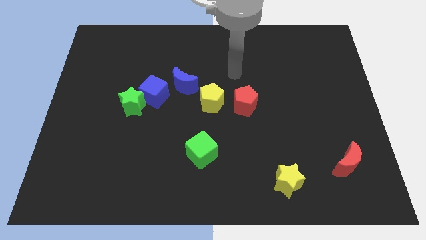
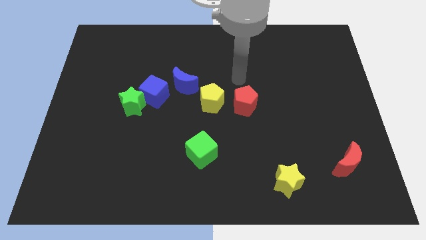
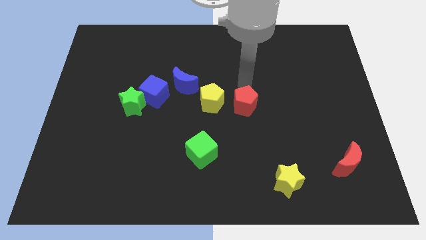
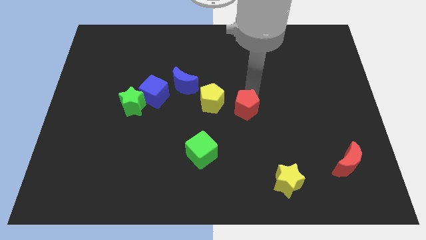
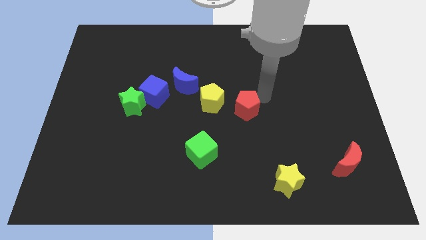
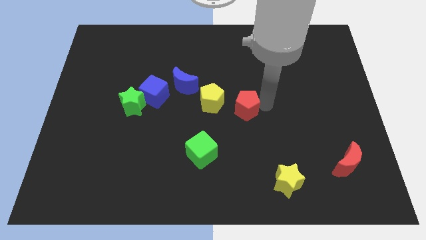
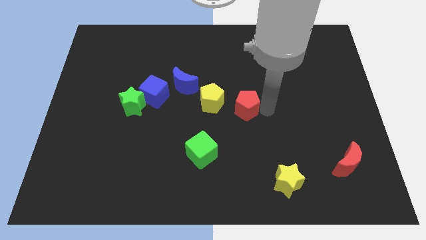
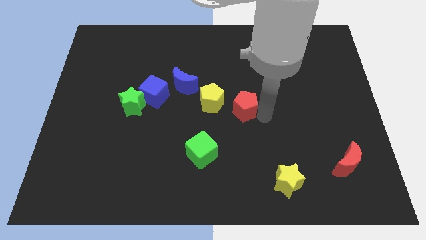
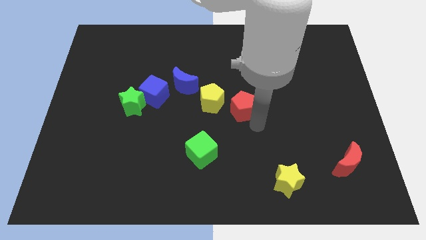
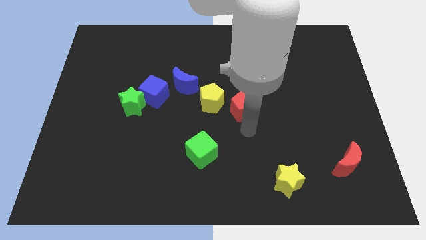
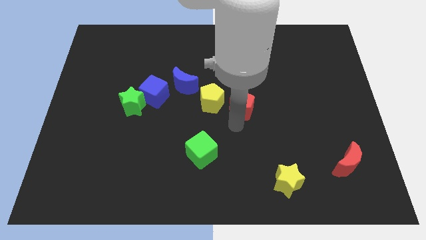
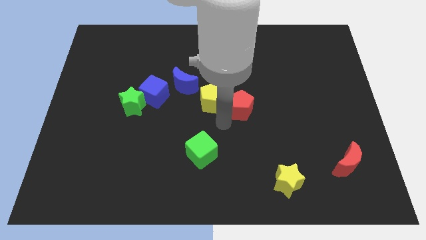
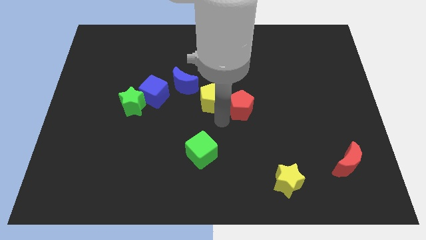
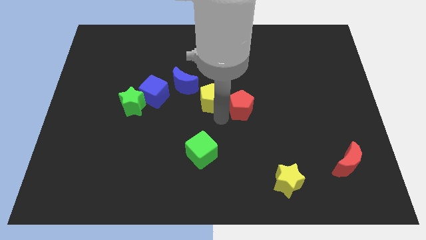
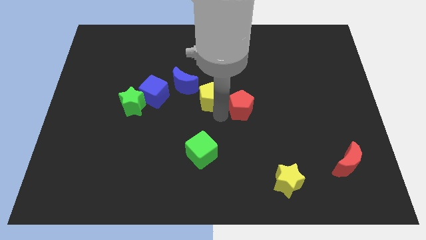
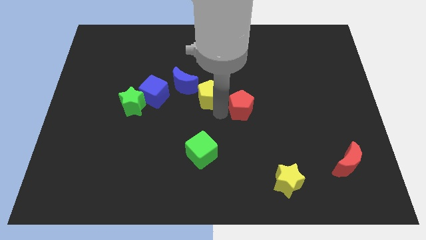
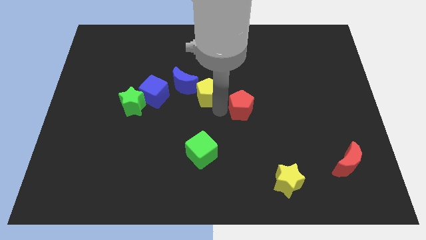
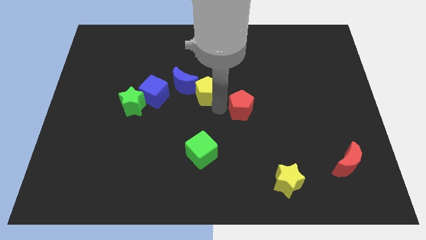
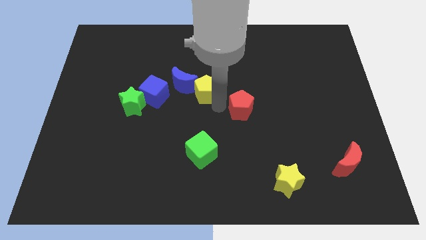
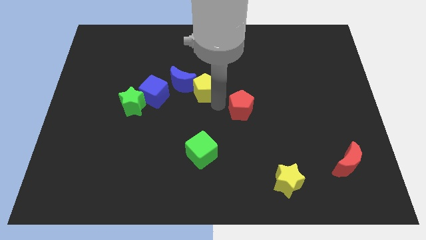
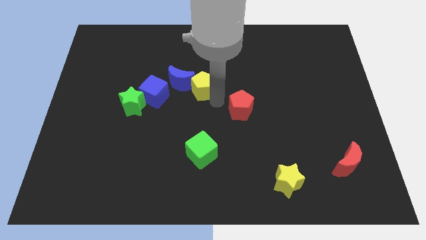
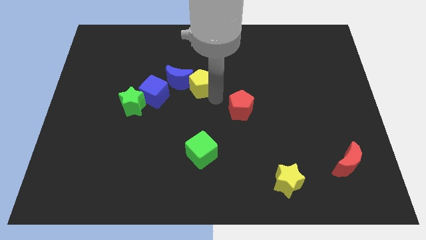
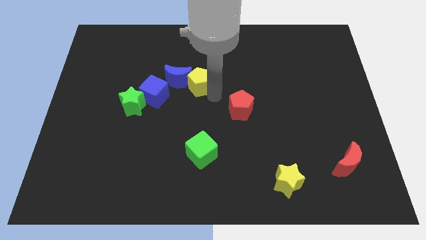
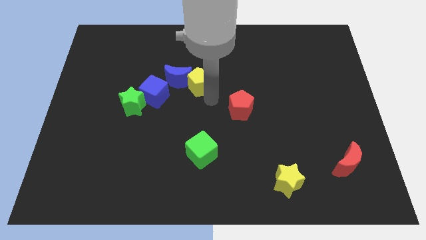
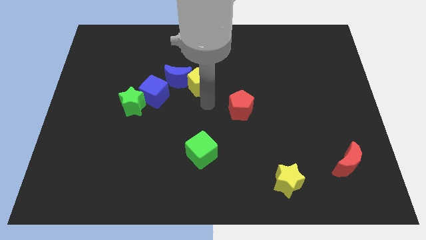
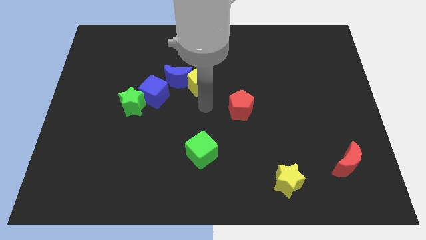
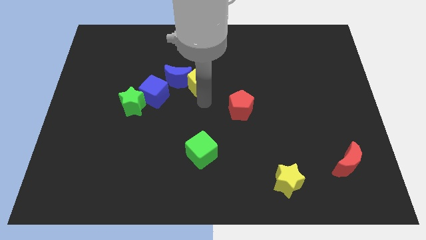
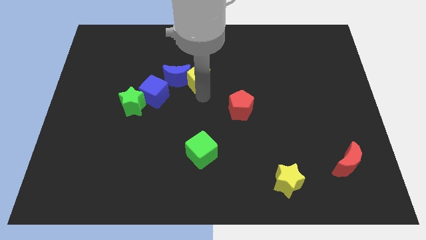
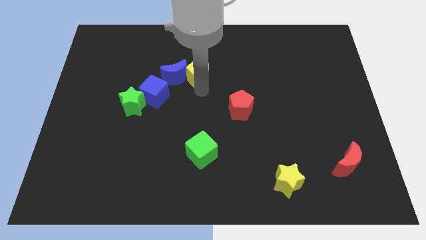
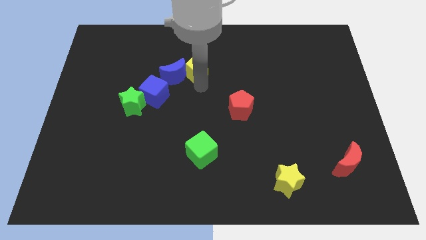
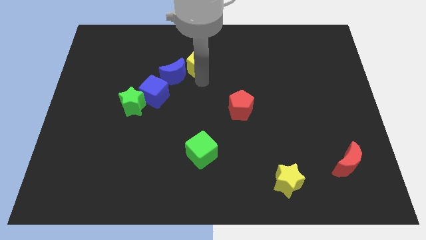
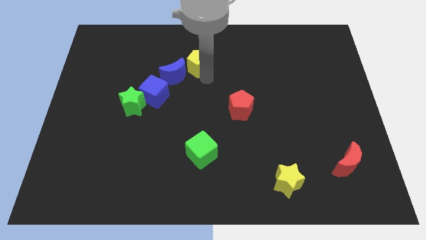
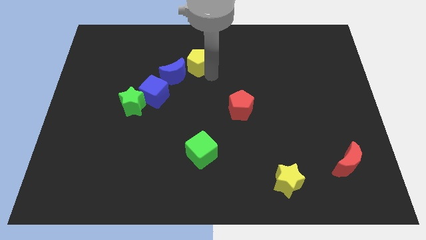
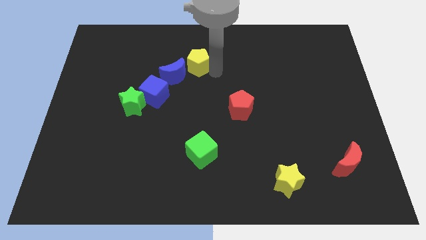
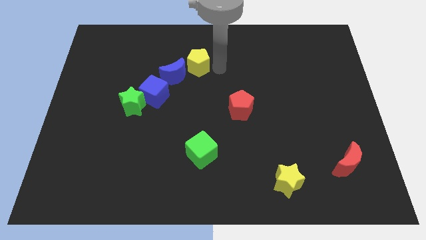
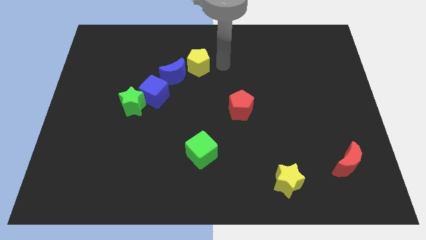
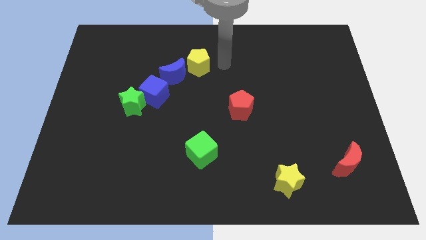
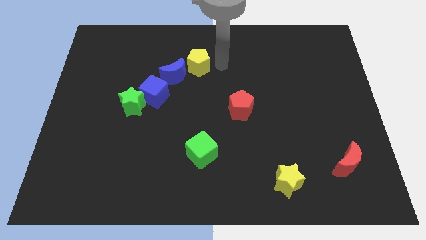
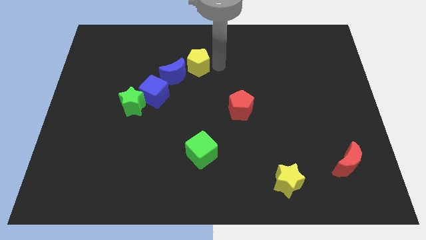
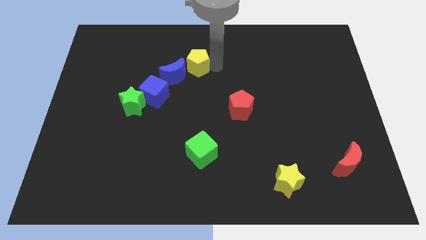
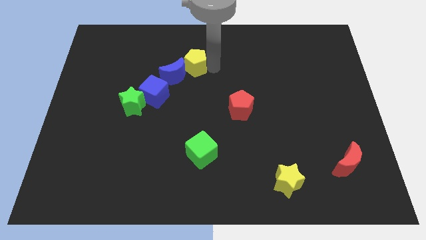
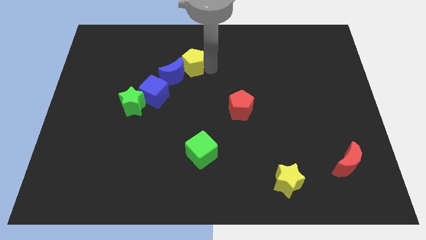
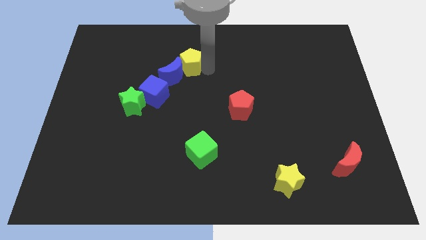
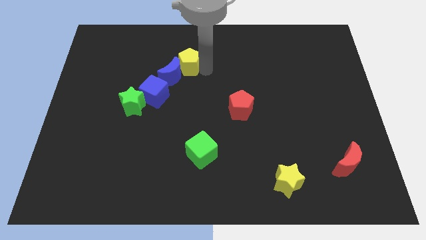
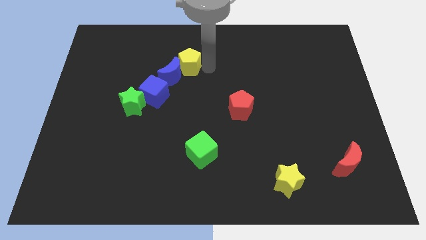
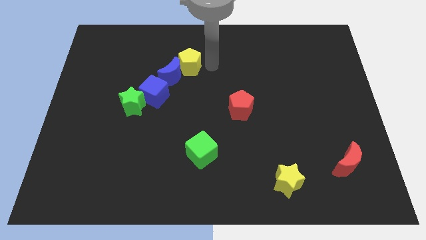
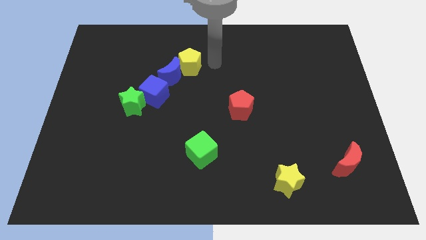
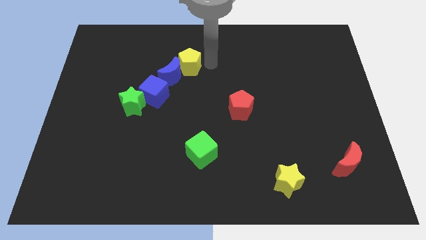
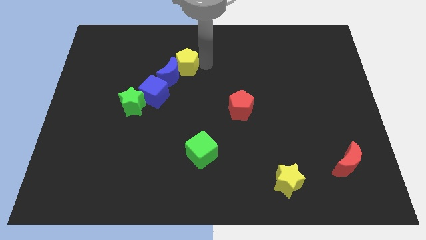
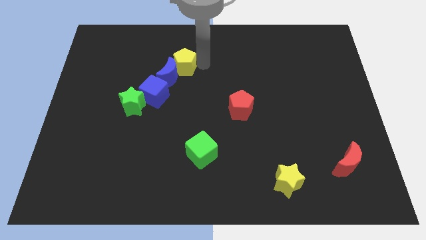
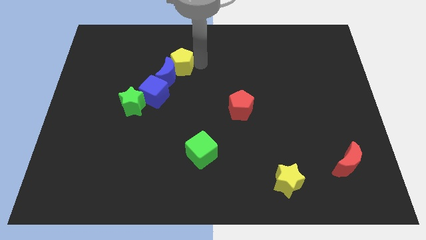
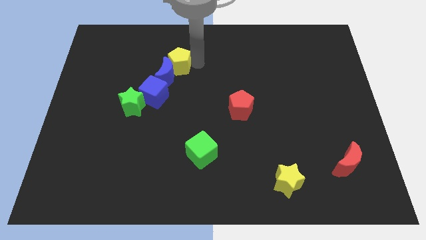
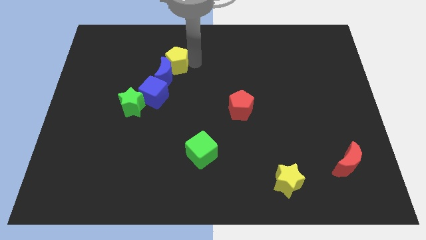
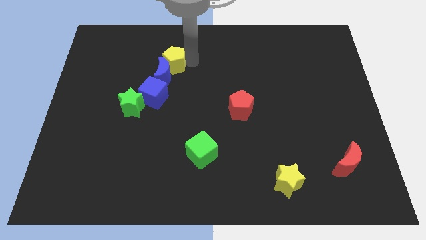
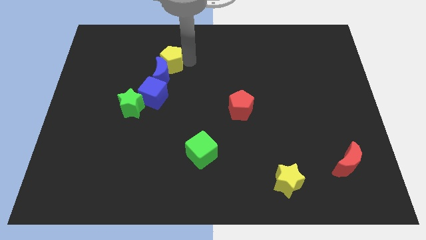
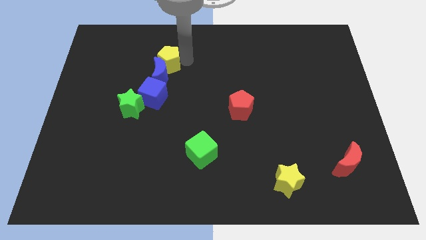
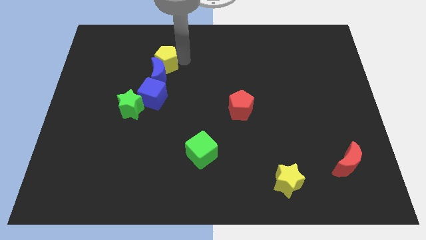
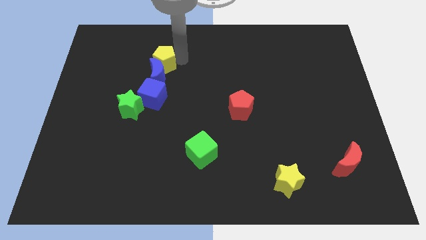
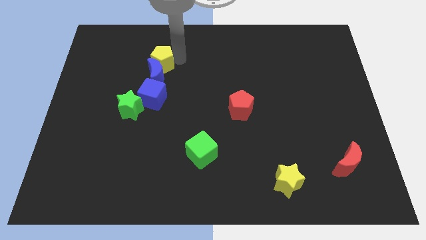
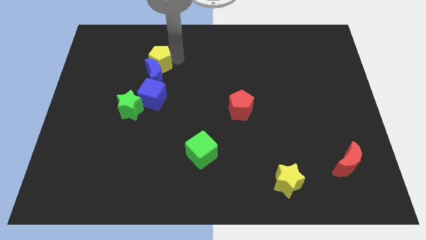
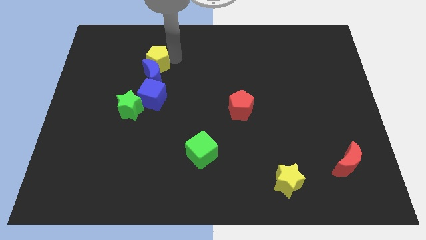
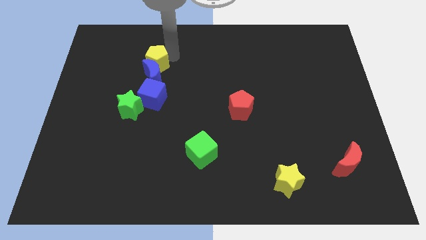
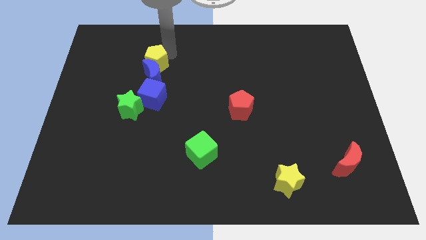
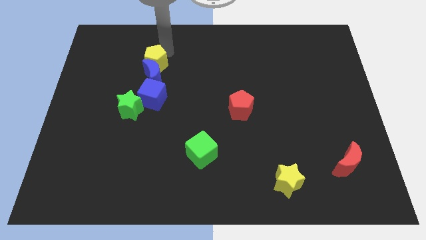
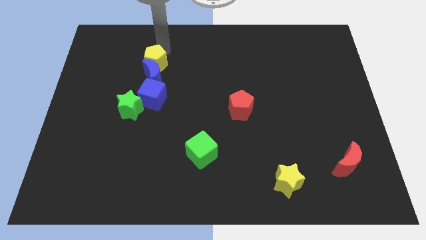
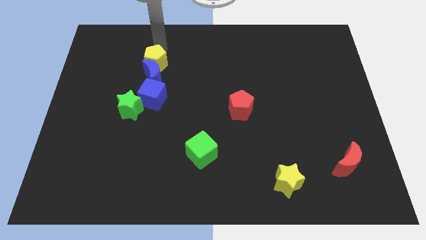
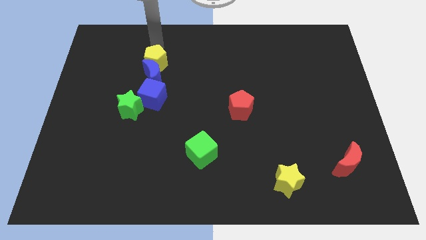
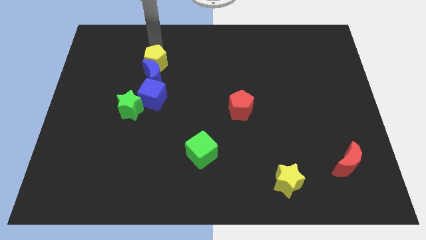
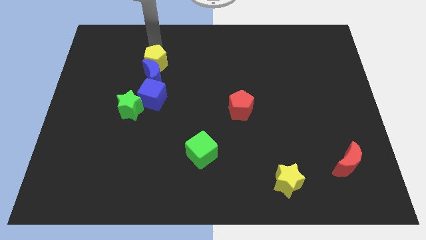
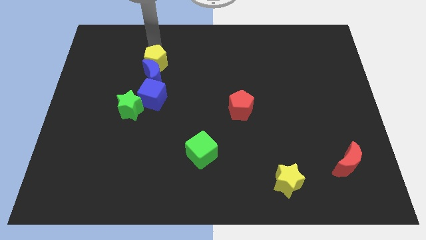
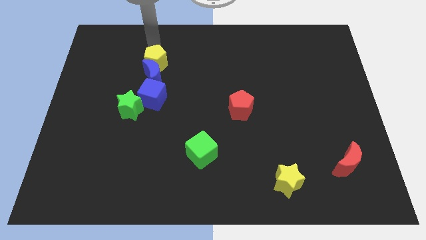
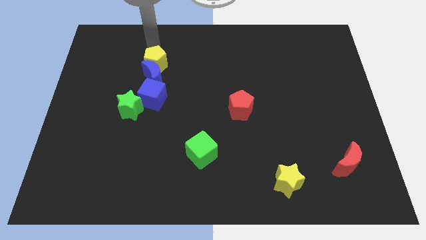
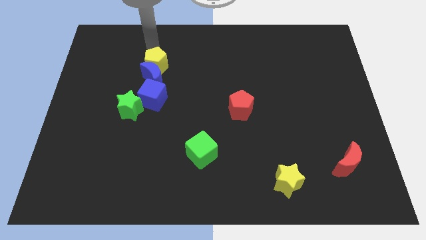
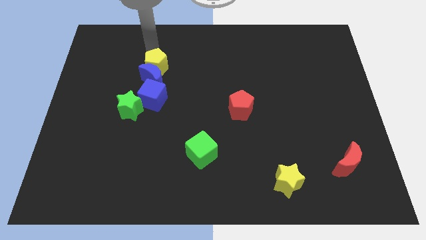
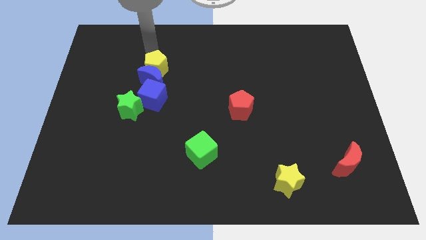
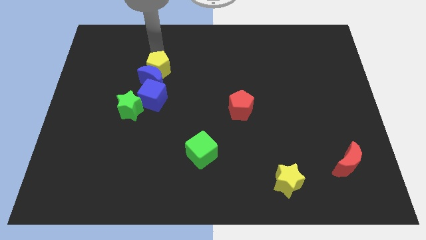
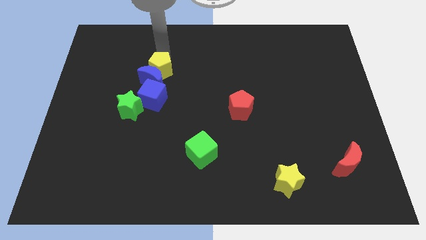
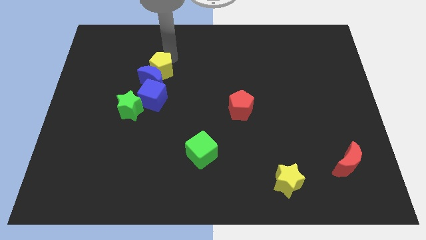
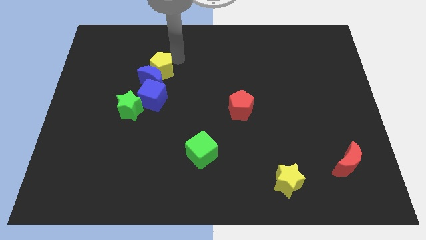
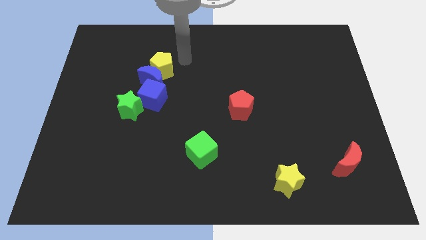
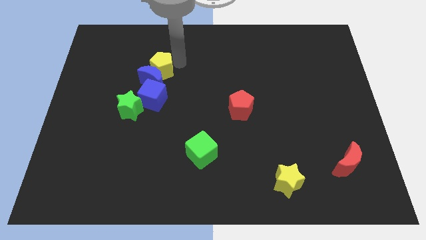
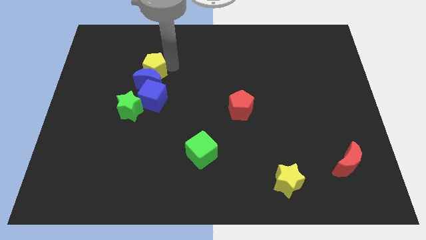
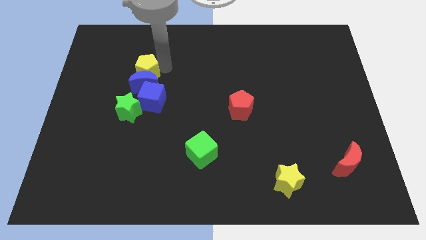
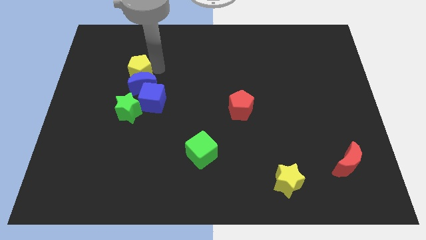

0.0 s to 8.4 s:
move the yellow pentagon to the top left of the blue cube
